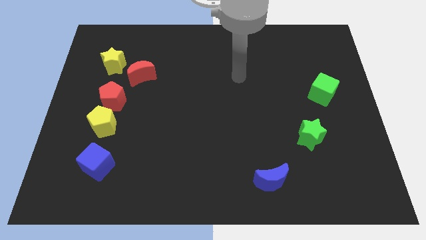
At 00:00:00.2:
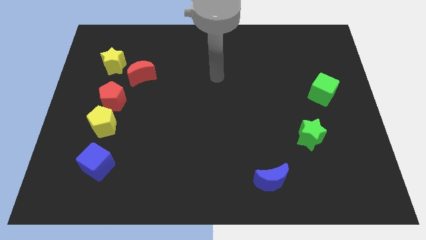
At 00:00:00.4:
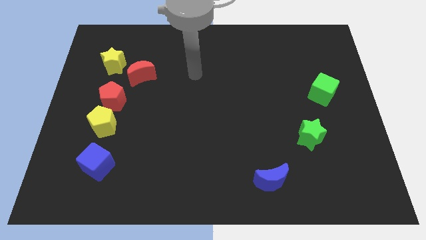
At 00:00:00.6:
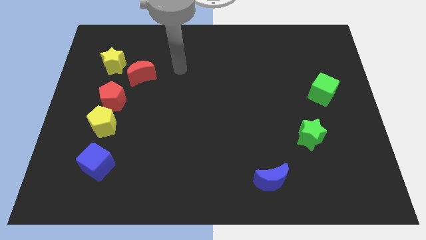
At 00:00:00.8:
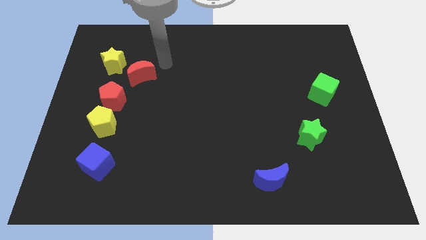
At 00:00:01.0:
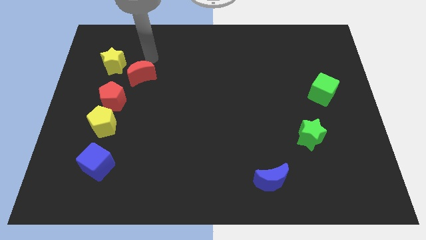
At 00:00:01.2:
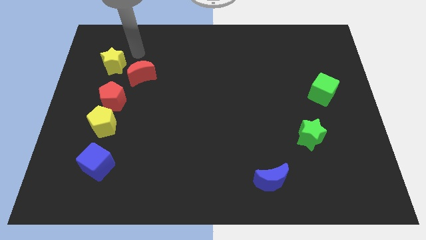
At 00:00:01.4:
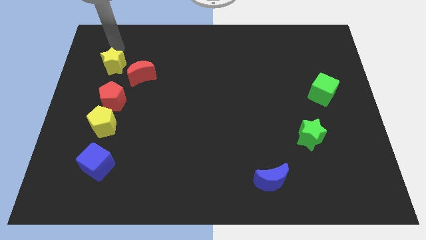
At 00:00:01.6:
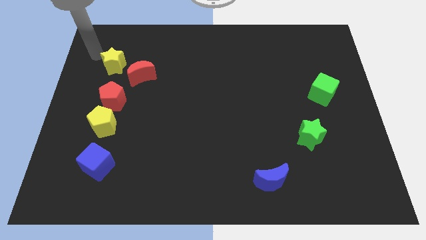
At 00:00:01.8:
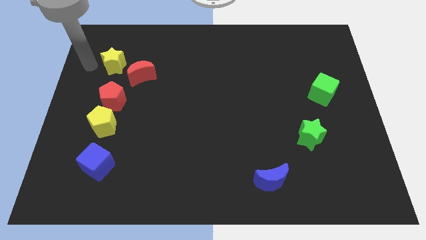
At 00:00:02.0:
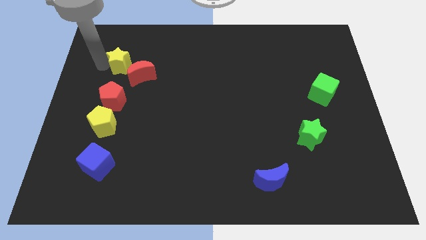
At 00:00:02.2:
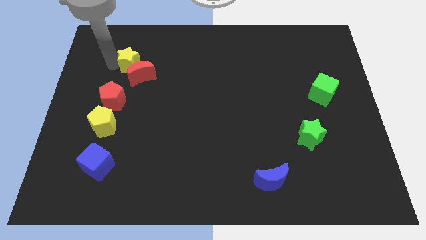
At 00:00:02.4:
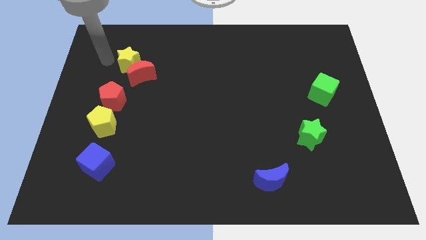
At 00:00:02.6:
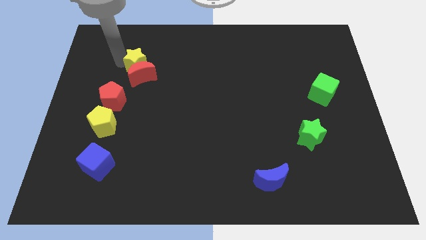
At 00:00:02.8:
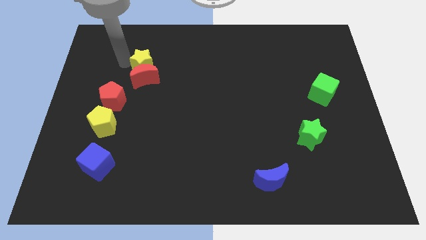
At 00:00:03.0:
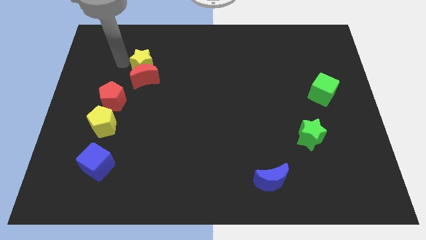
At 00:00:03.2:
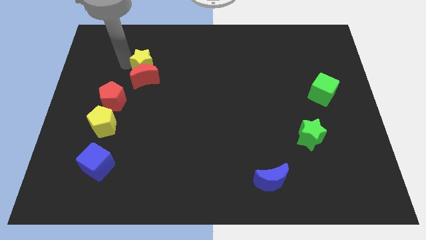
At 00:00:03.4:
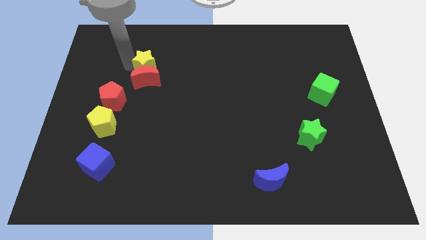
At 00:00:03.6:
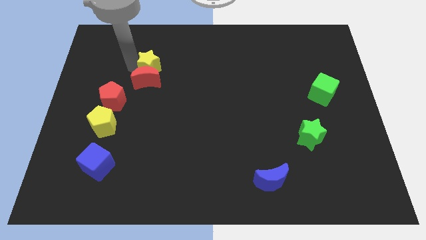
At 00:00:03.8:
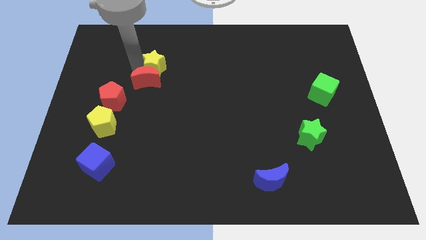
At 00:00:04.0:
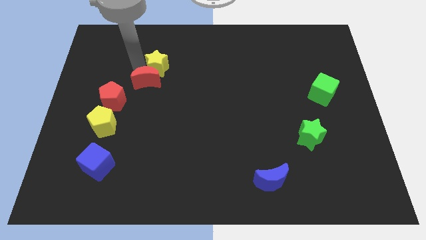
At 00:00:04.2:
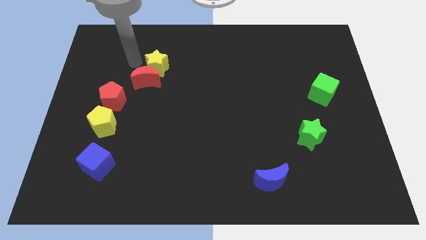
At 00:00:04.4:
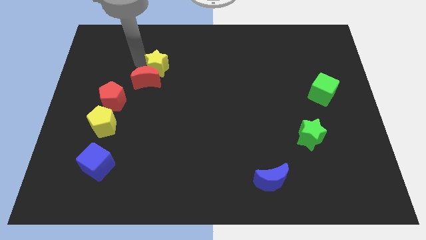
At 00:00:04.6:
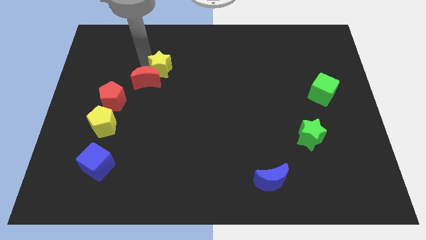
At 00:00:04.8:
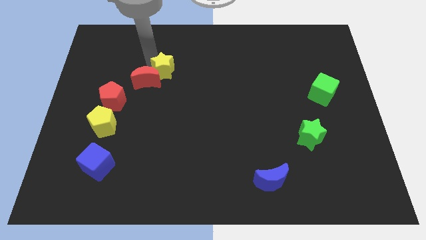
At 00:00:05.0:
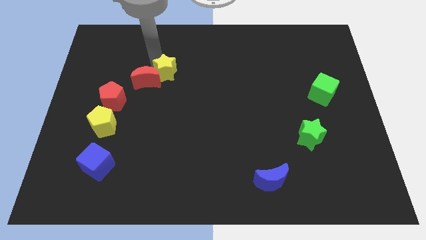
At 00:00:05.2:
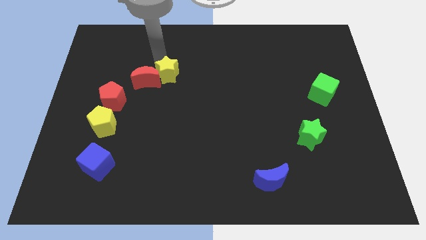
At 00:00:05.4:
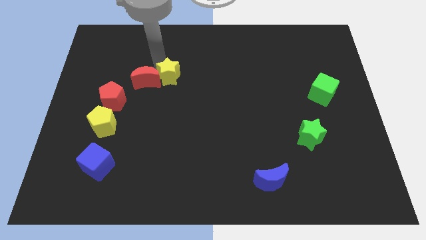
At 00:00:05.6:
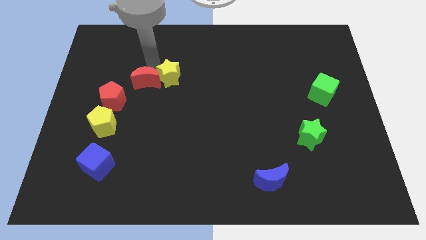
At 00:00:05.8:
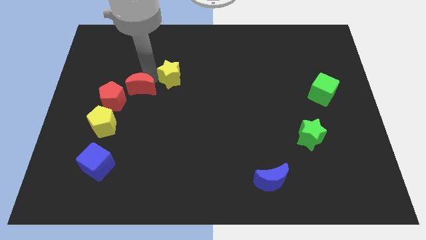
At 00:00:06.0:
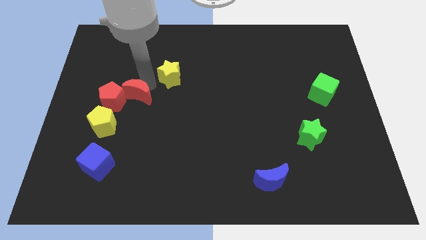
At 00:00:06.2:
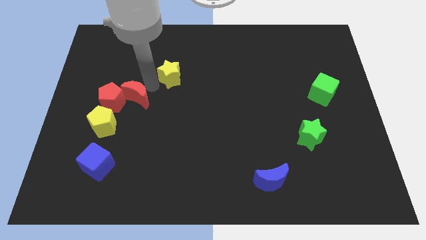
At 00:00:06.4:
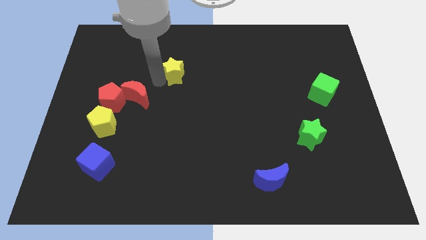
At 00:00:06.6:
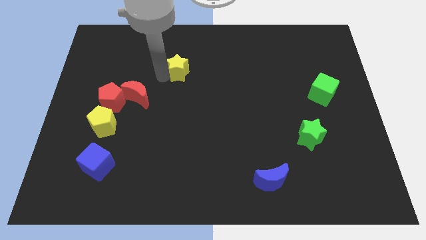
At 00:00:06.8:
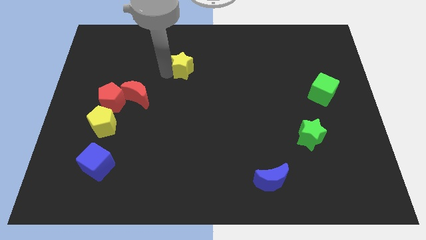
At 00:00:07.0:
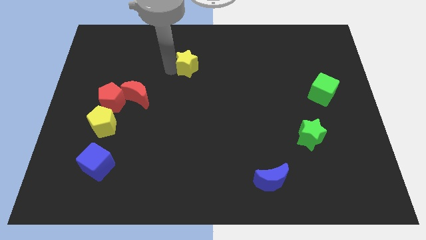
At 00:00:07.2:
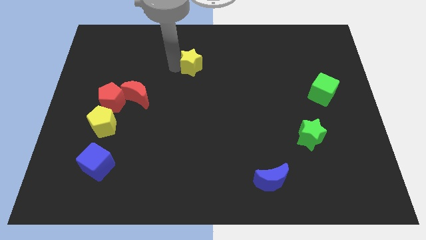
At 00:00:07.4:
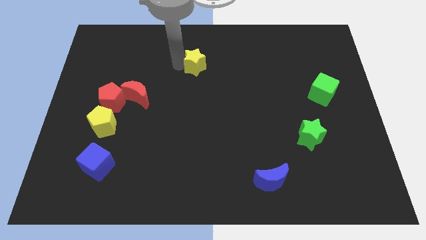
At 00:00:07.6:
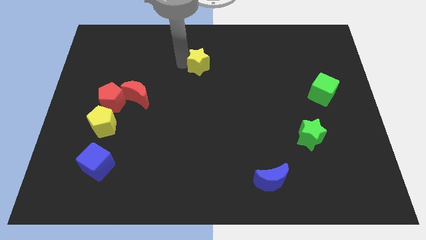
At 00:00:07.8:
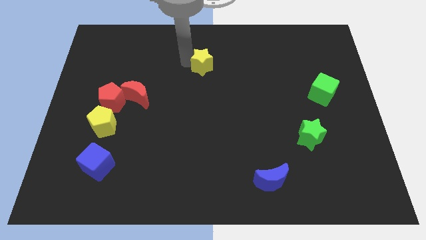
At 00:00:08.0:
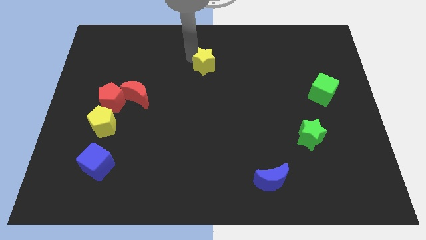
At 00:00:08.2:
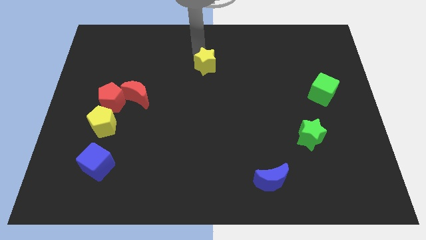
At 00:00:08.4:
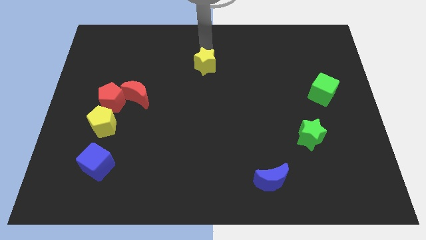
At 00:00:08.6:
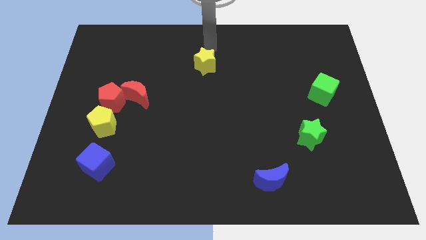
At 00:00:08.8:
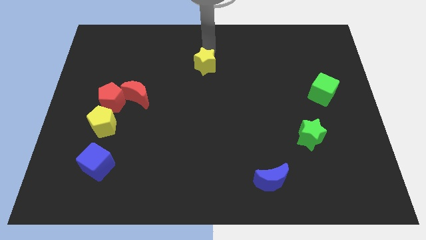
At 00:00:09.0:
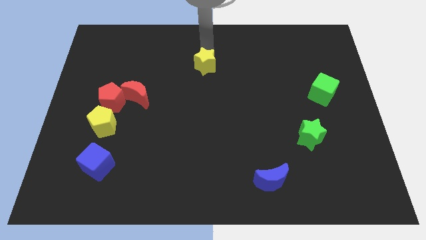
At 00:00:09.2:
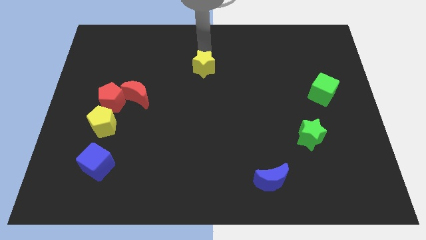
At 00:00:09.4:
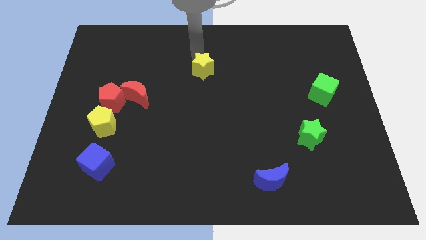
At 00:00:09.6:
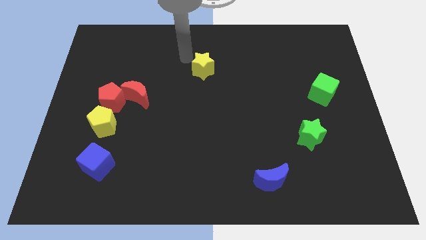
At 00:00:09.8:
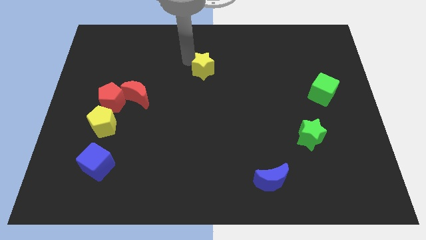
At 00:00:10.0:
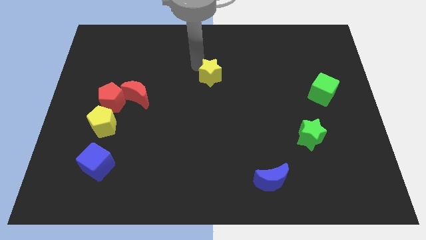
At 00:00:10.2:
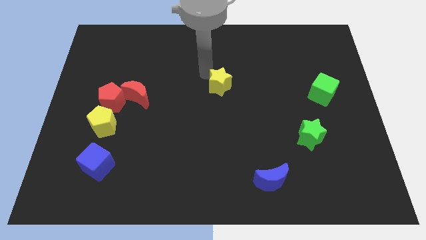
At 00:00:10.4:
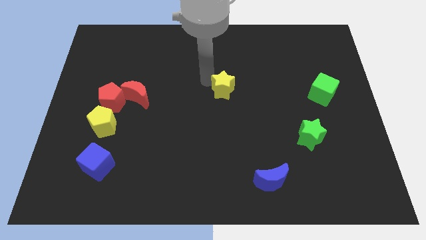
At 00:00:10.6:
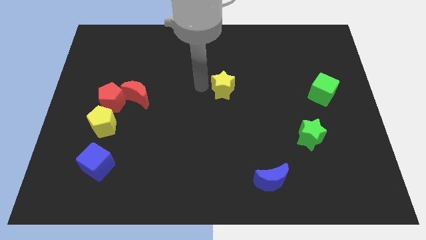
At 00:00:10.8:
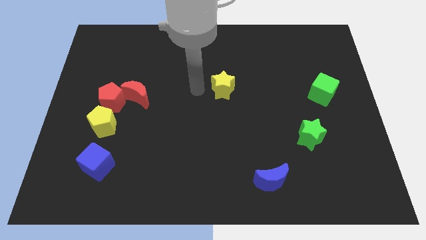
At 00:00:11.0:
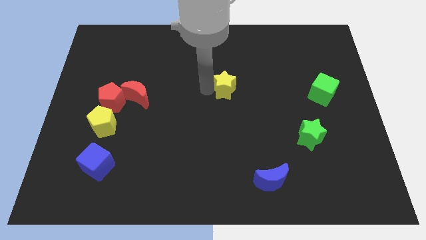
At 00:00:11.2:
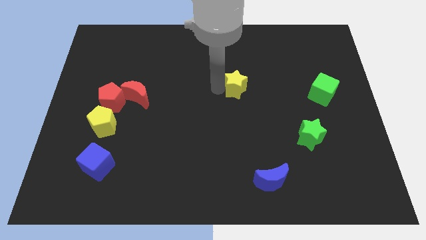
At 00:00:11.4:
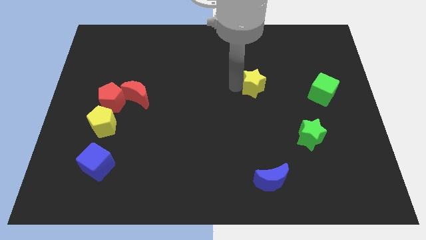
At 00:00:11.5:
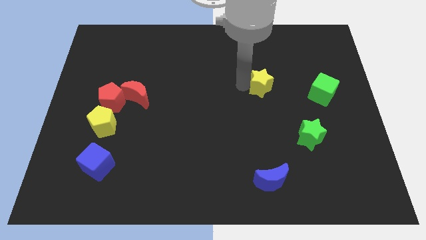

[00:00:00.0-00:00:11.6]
push the yellow star just left of the green cube

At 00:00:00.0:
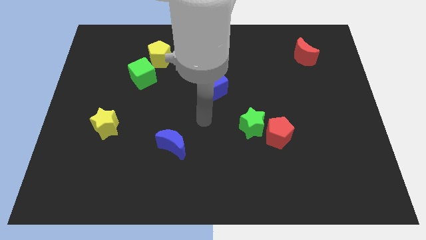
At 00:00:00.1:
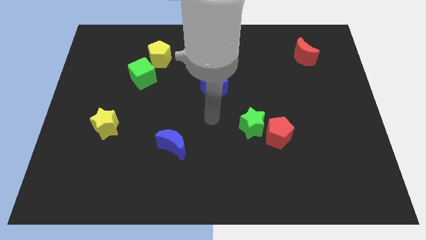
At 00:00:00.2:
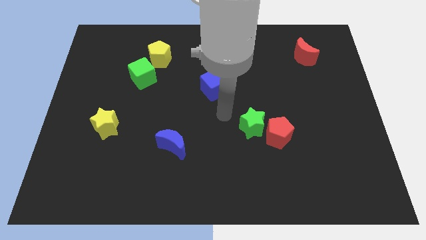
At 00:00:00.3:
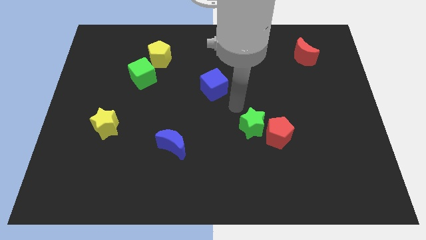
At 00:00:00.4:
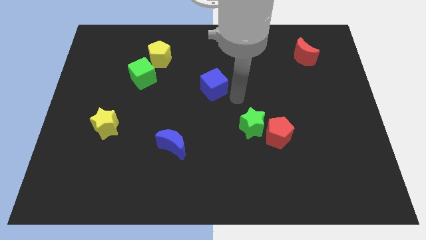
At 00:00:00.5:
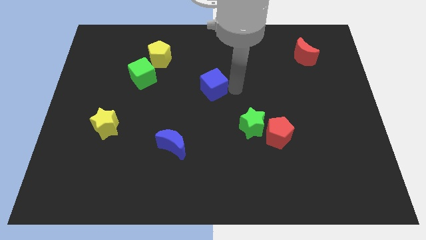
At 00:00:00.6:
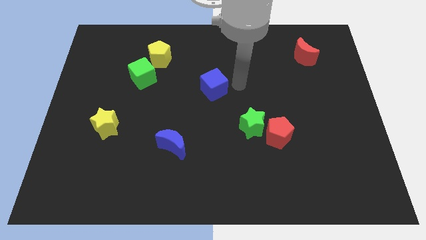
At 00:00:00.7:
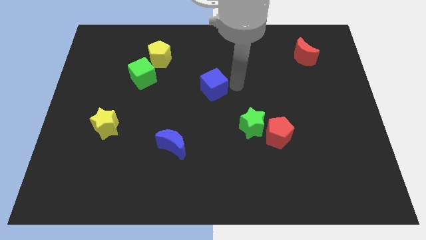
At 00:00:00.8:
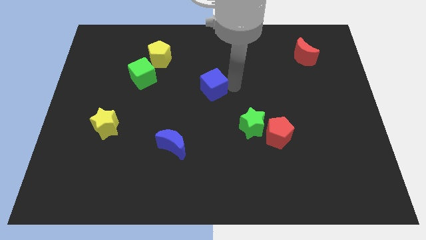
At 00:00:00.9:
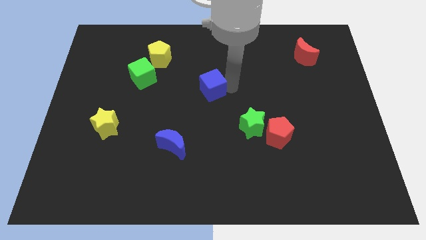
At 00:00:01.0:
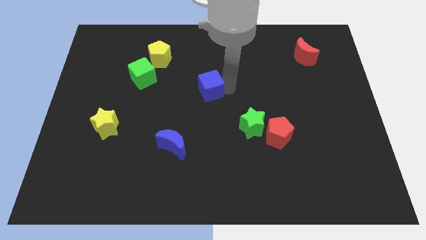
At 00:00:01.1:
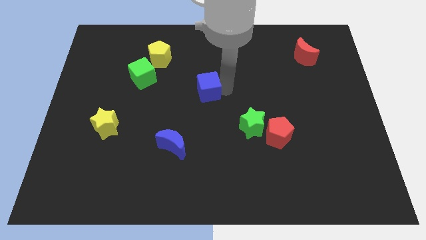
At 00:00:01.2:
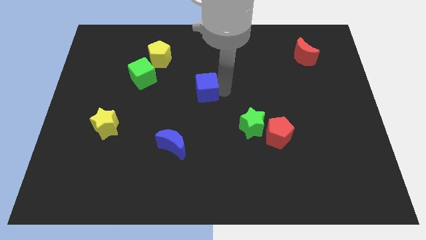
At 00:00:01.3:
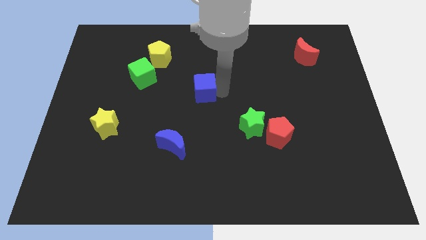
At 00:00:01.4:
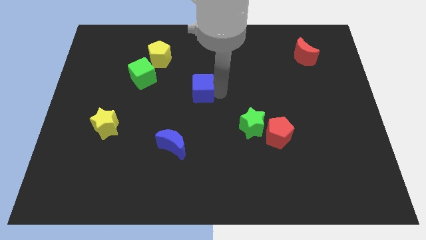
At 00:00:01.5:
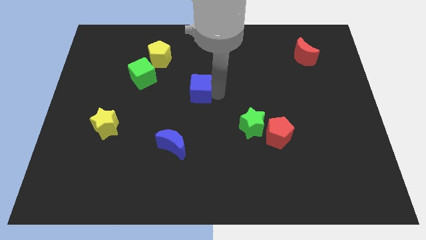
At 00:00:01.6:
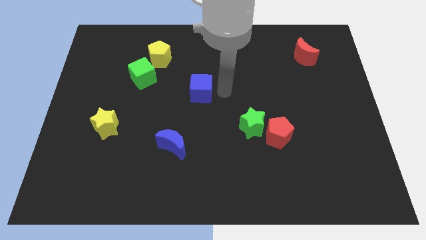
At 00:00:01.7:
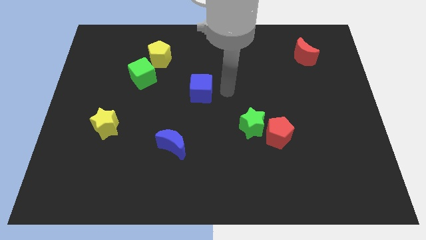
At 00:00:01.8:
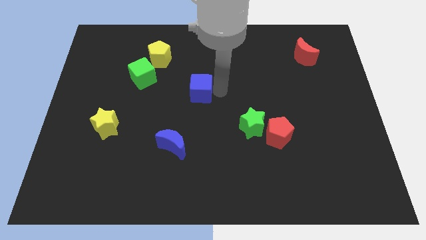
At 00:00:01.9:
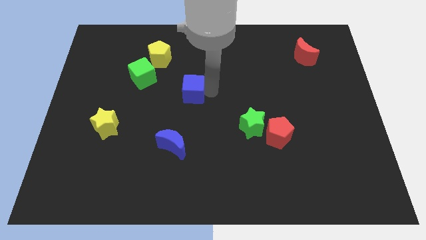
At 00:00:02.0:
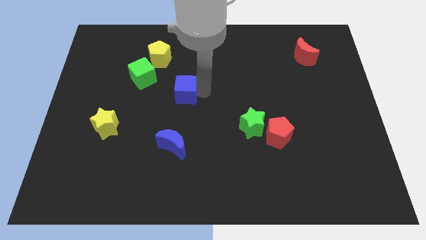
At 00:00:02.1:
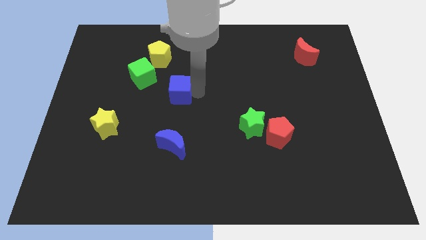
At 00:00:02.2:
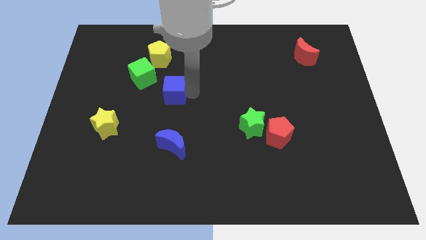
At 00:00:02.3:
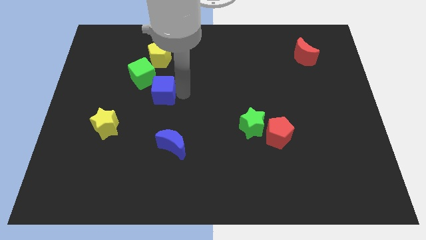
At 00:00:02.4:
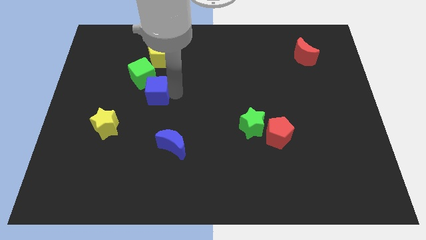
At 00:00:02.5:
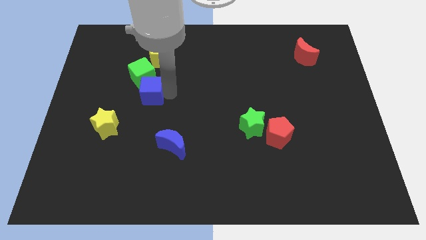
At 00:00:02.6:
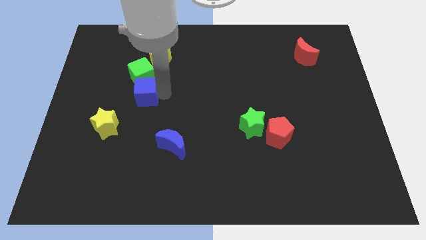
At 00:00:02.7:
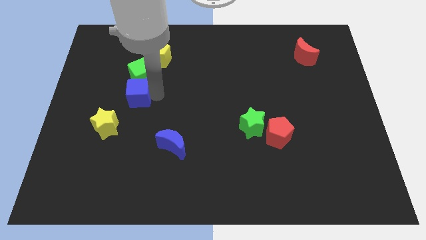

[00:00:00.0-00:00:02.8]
slide the blue cube diagonally down and to the left of the green cube
